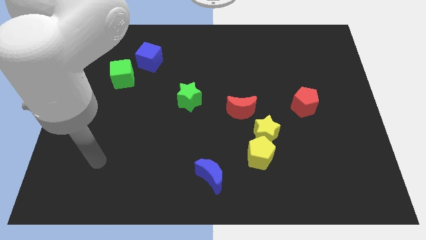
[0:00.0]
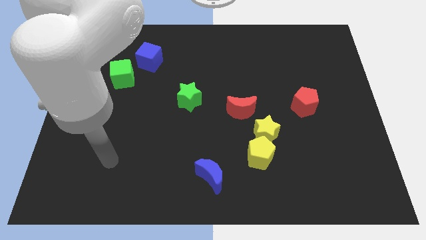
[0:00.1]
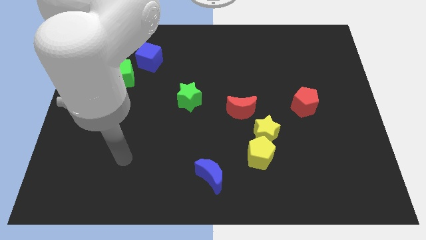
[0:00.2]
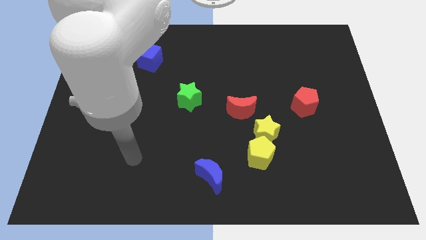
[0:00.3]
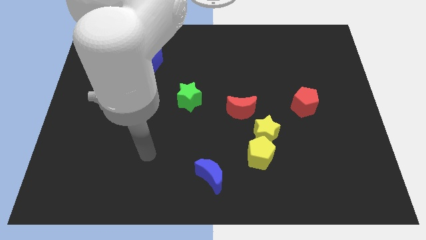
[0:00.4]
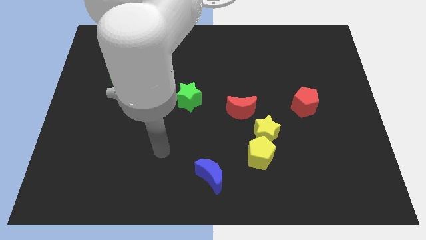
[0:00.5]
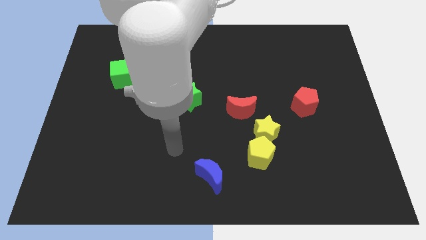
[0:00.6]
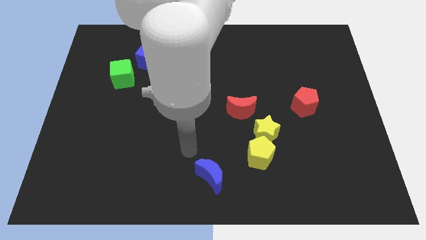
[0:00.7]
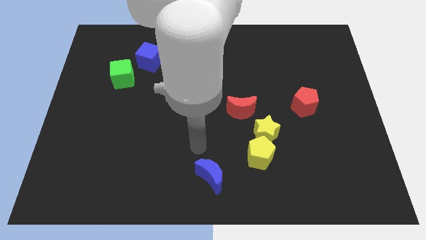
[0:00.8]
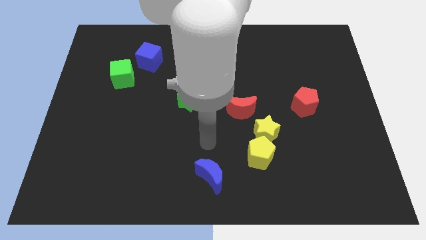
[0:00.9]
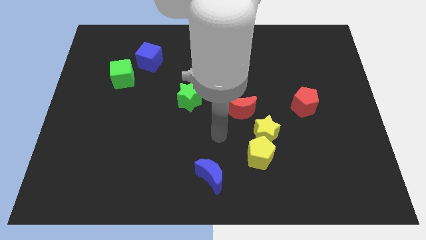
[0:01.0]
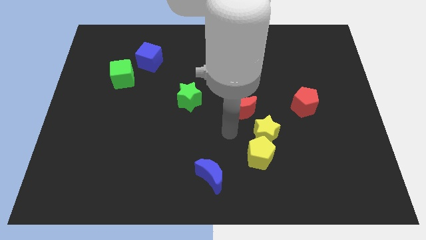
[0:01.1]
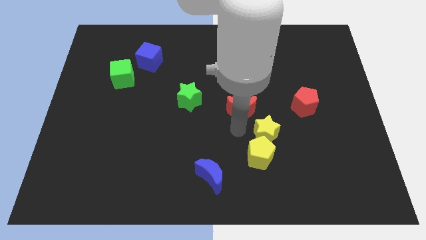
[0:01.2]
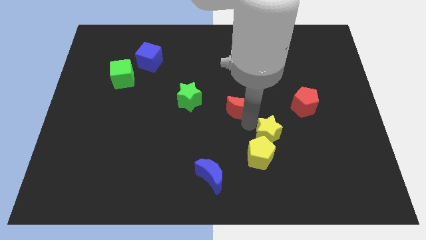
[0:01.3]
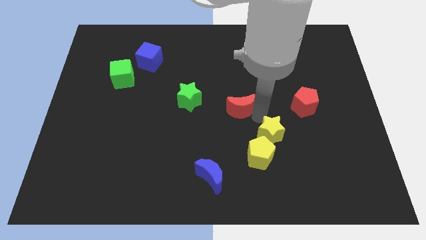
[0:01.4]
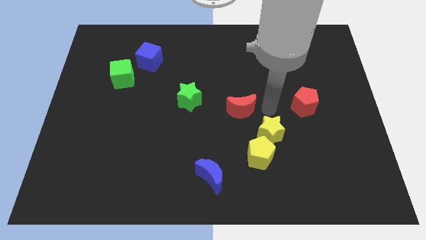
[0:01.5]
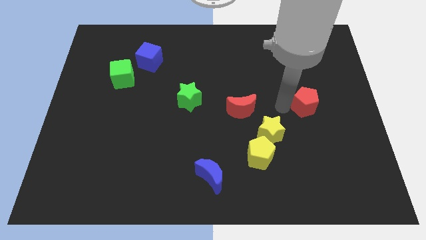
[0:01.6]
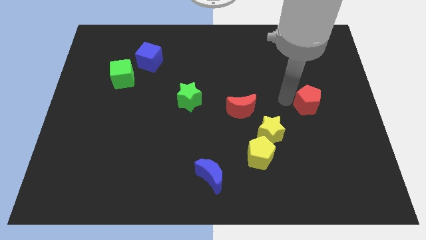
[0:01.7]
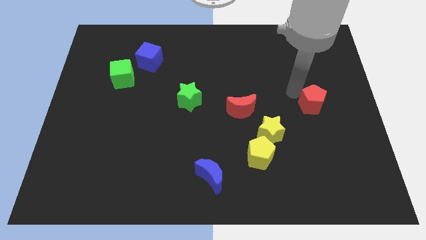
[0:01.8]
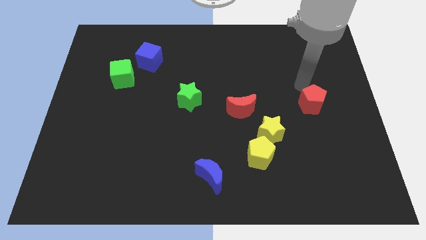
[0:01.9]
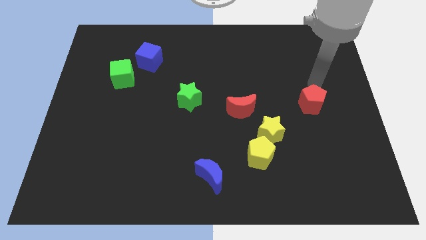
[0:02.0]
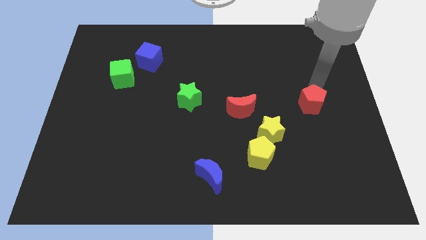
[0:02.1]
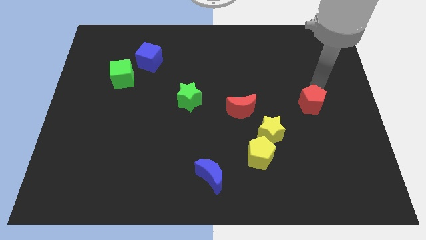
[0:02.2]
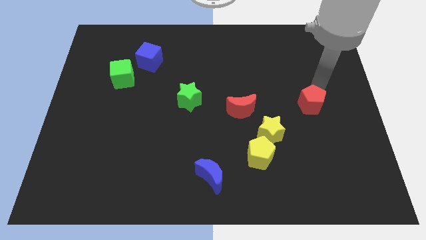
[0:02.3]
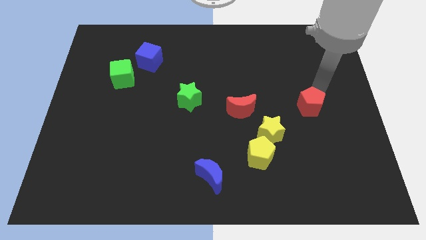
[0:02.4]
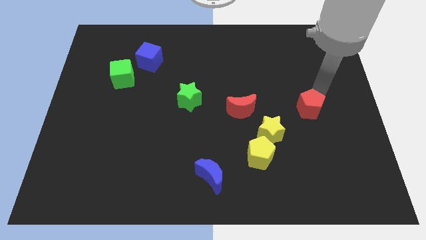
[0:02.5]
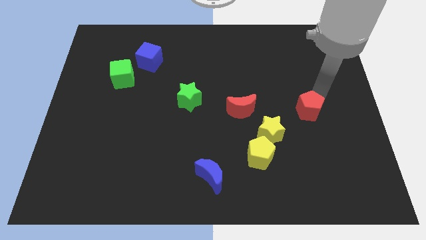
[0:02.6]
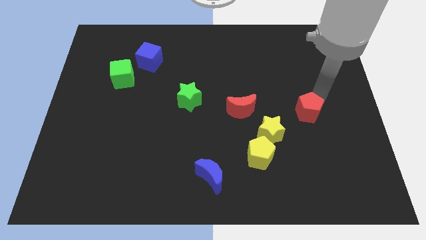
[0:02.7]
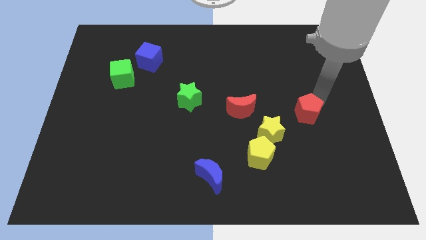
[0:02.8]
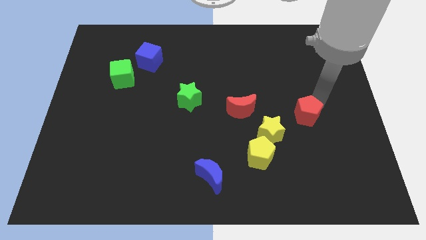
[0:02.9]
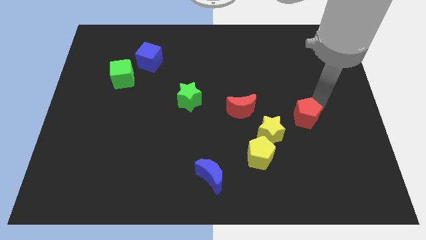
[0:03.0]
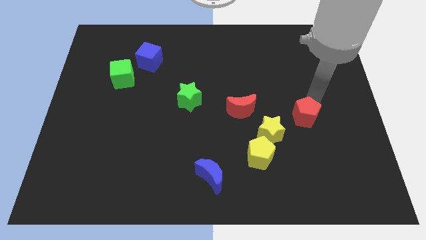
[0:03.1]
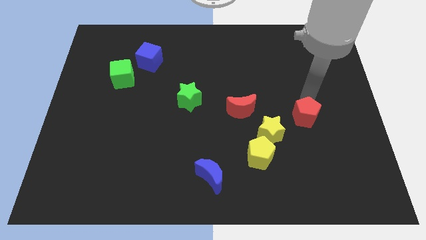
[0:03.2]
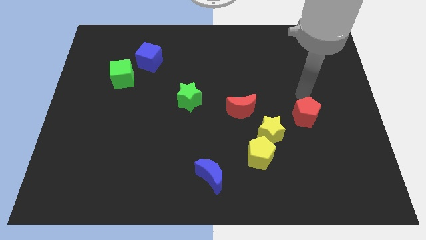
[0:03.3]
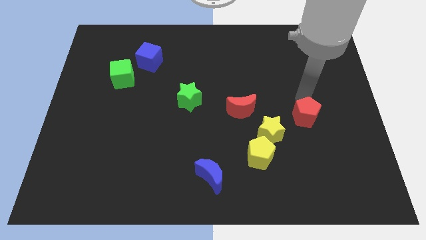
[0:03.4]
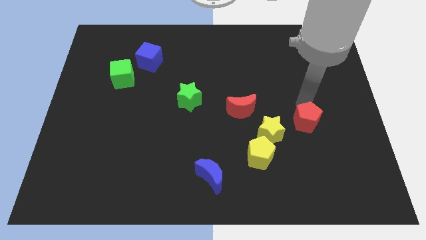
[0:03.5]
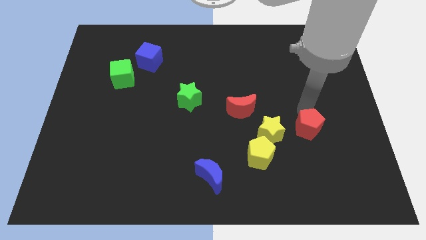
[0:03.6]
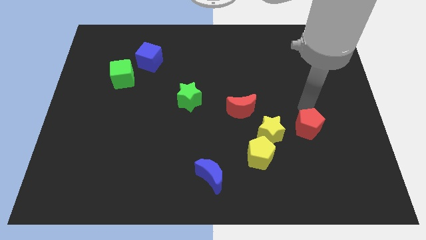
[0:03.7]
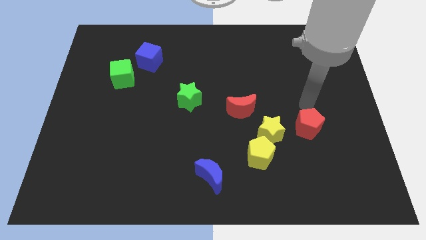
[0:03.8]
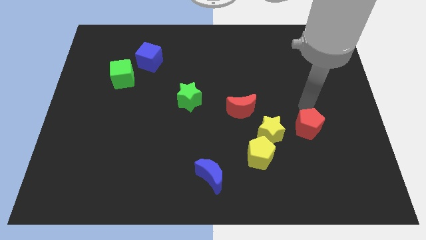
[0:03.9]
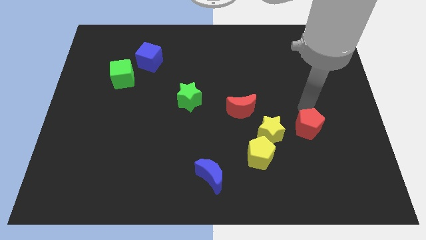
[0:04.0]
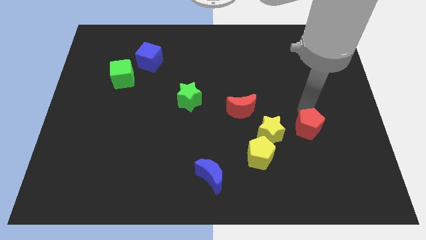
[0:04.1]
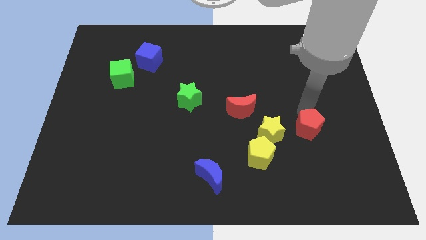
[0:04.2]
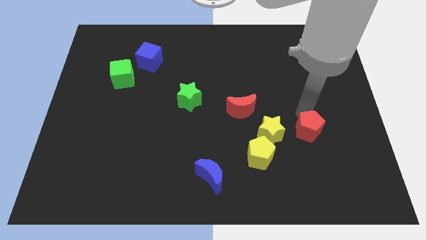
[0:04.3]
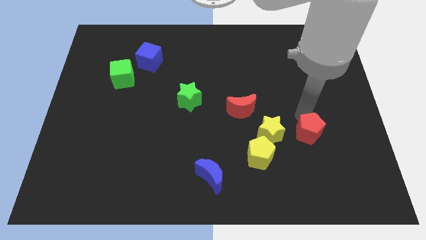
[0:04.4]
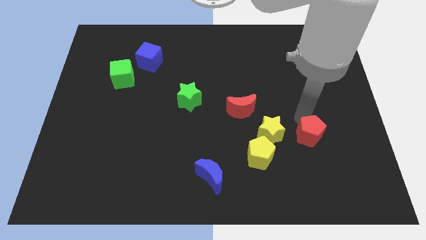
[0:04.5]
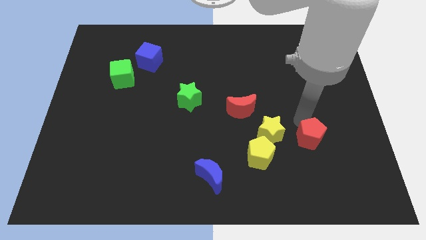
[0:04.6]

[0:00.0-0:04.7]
move the red pentagon right of the yellow pentagon

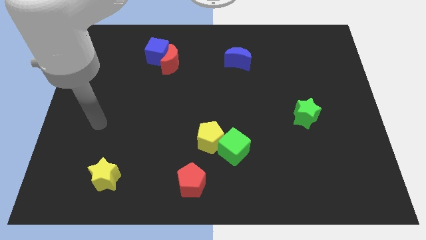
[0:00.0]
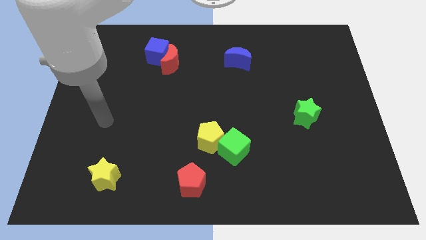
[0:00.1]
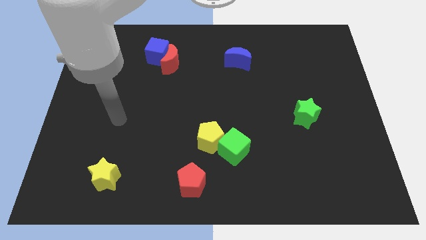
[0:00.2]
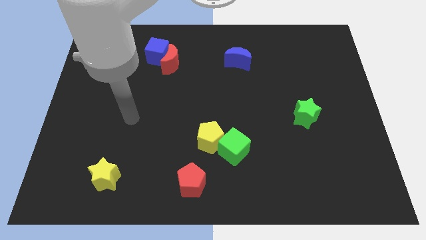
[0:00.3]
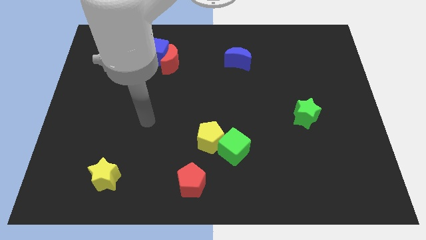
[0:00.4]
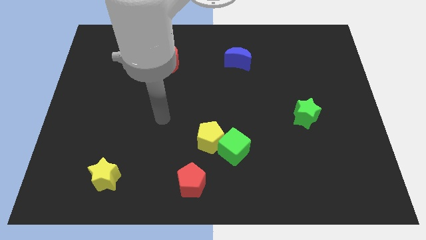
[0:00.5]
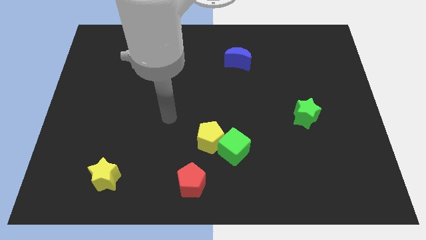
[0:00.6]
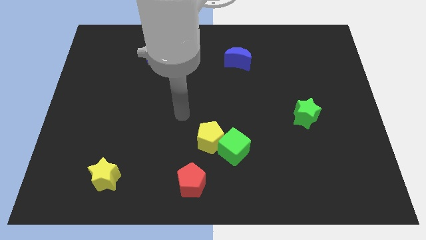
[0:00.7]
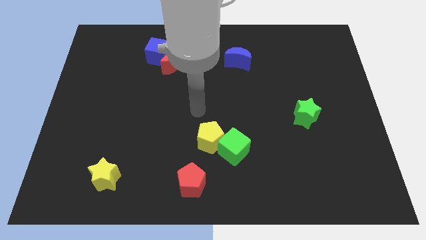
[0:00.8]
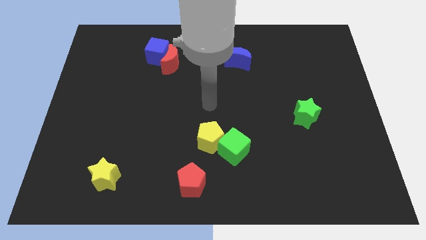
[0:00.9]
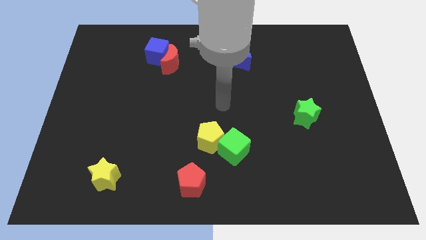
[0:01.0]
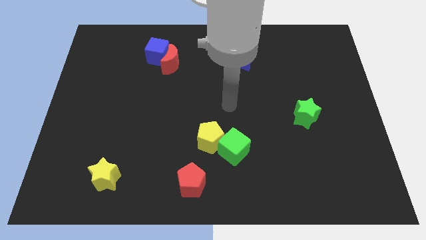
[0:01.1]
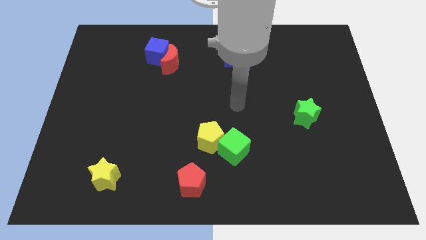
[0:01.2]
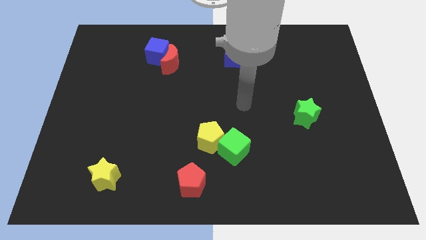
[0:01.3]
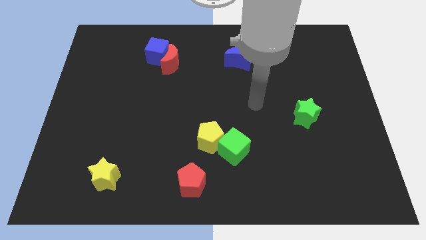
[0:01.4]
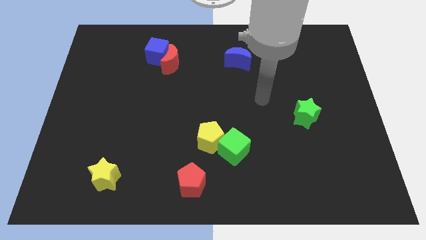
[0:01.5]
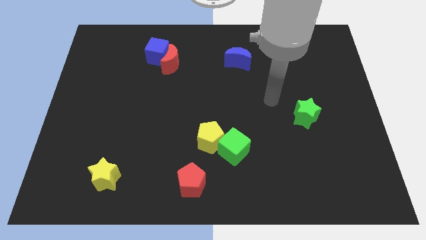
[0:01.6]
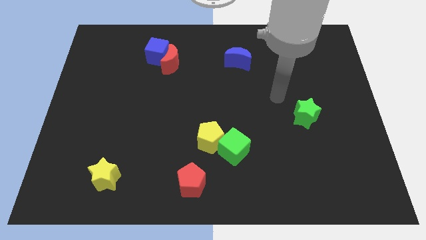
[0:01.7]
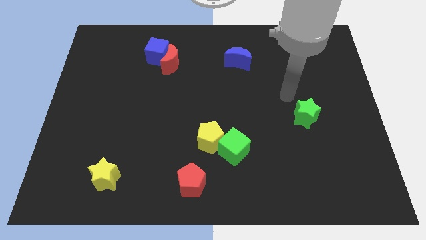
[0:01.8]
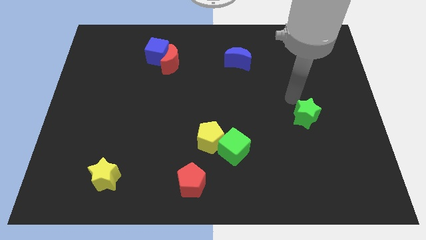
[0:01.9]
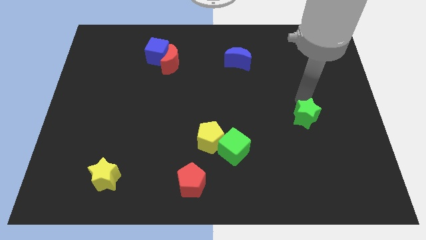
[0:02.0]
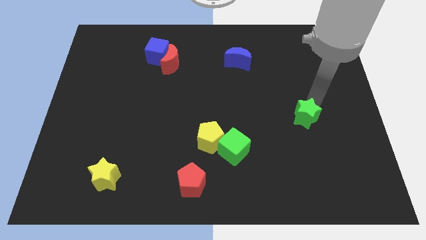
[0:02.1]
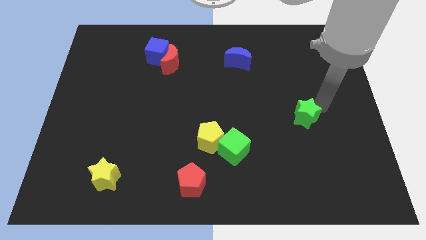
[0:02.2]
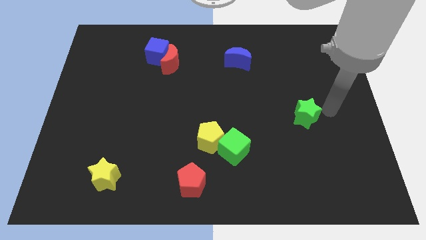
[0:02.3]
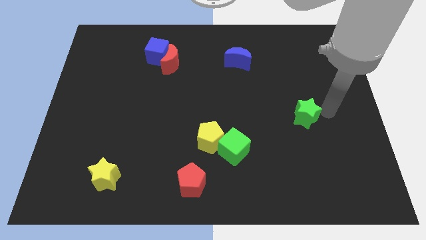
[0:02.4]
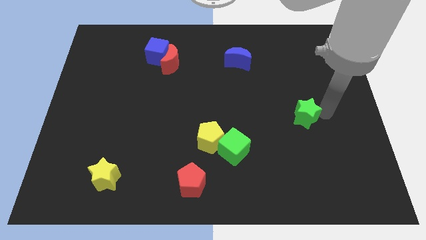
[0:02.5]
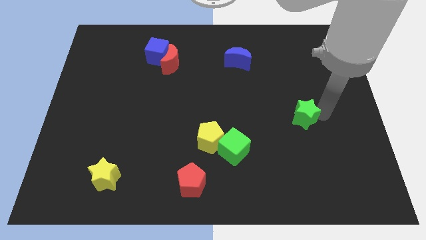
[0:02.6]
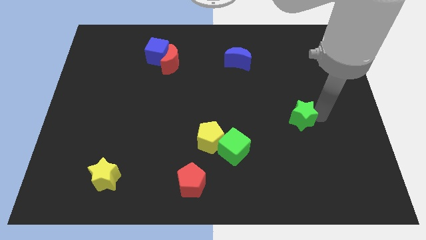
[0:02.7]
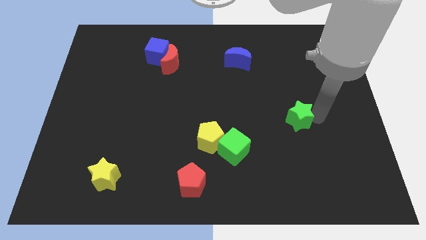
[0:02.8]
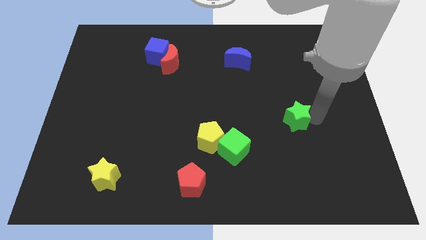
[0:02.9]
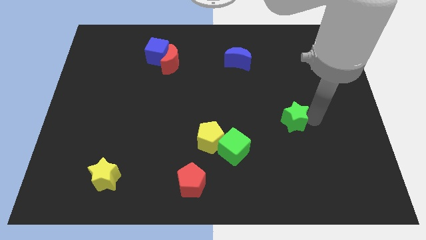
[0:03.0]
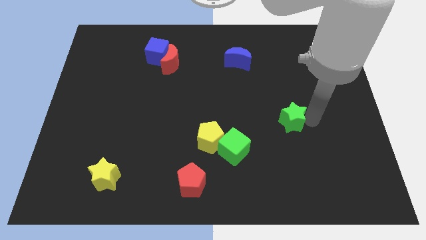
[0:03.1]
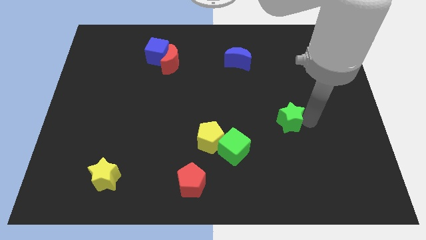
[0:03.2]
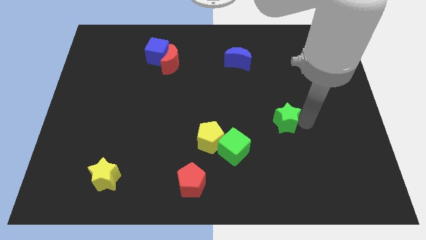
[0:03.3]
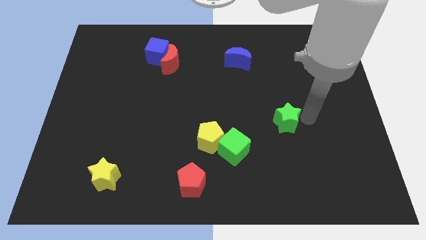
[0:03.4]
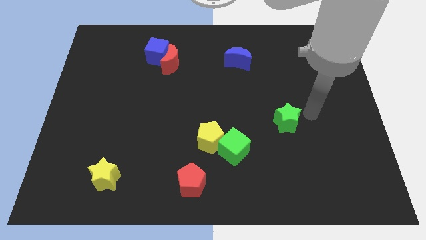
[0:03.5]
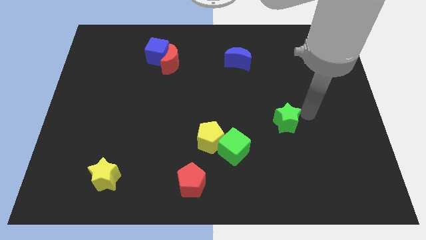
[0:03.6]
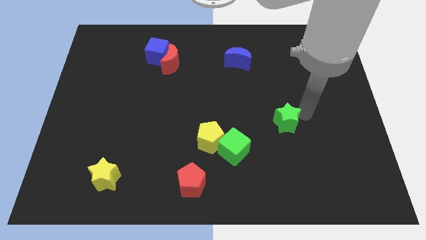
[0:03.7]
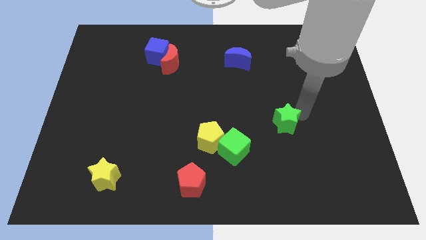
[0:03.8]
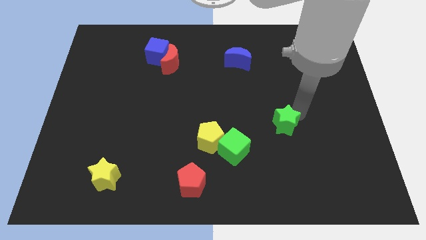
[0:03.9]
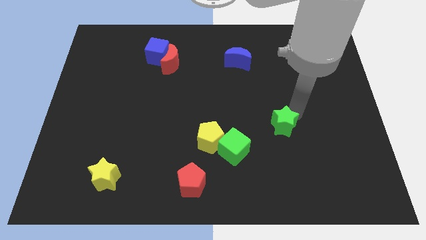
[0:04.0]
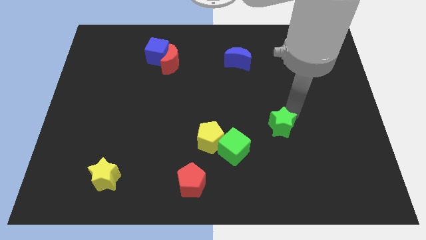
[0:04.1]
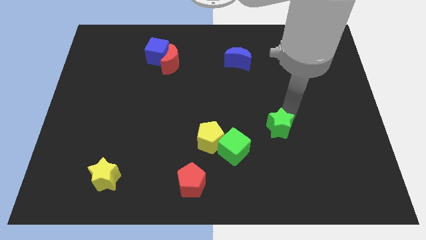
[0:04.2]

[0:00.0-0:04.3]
push the green star to the top right of the green cube
